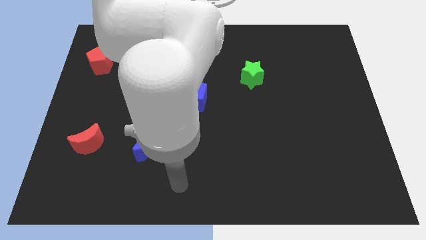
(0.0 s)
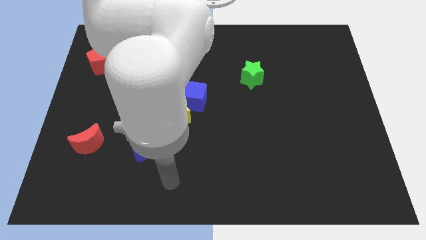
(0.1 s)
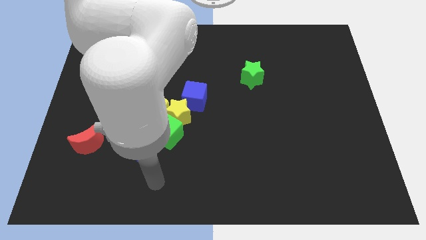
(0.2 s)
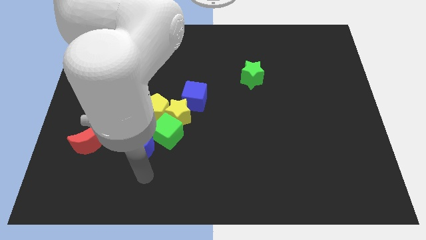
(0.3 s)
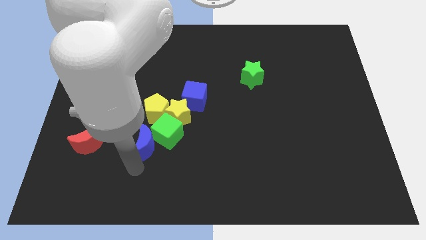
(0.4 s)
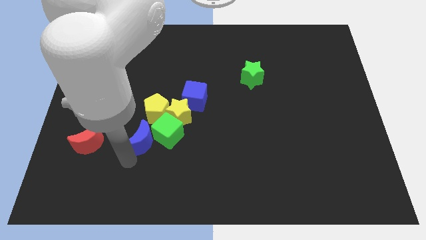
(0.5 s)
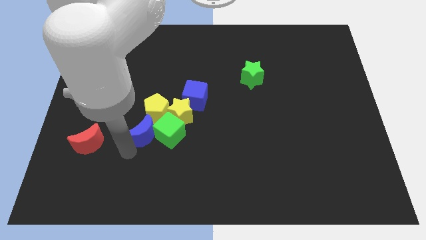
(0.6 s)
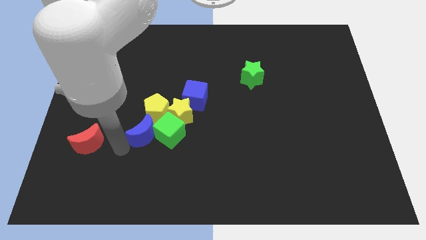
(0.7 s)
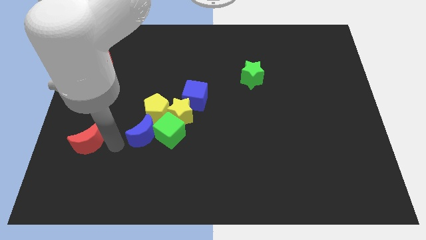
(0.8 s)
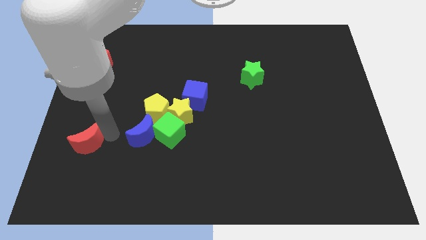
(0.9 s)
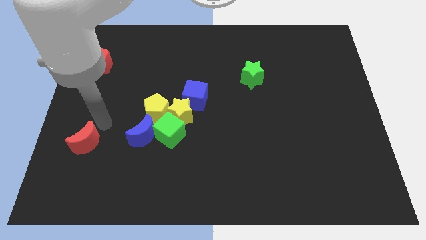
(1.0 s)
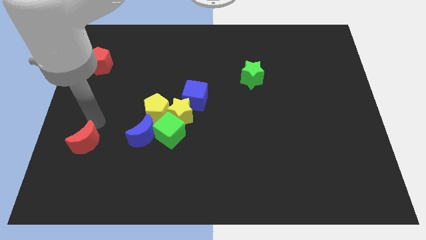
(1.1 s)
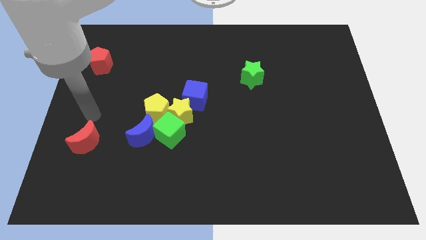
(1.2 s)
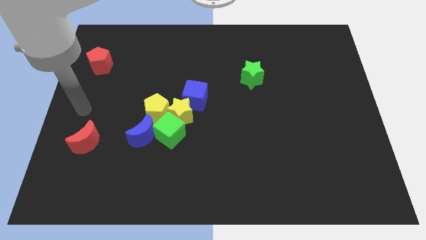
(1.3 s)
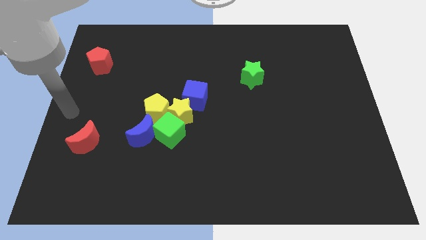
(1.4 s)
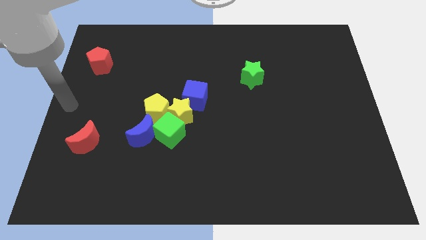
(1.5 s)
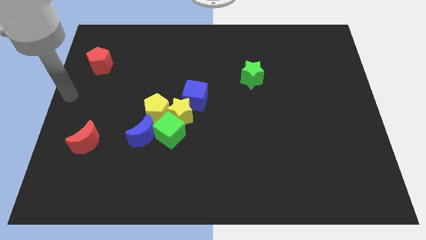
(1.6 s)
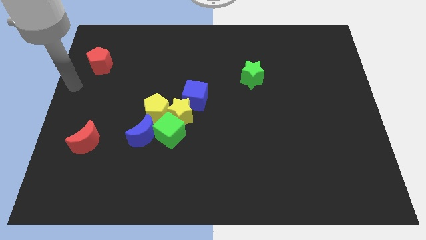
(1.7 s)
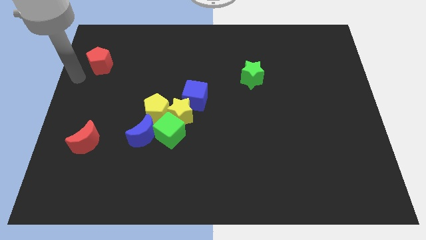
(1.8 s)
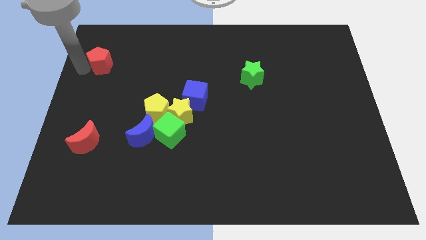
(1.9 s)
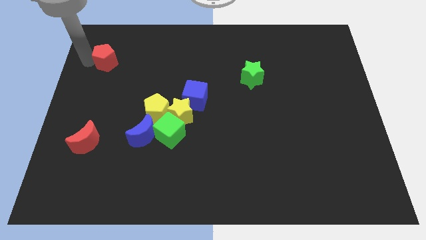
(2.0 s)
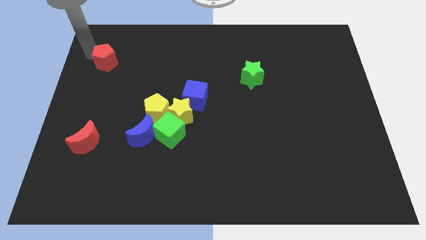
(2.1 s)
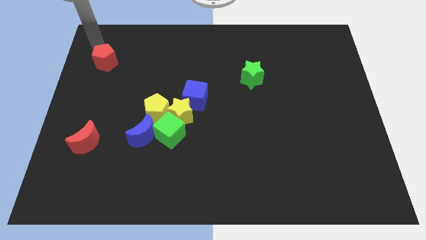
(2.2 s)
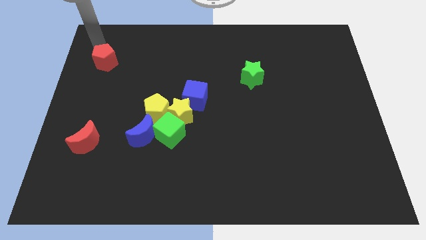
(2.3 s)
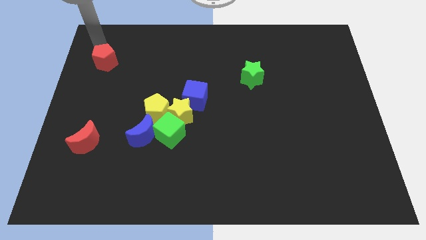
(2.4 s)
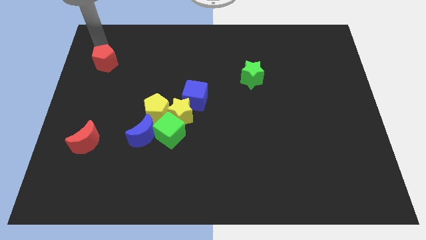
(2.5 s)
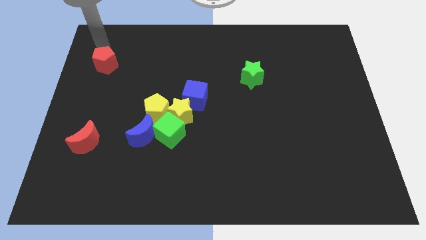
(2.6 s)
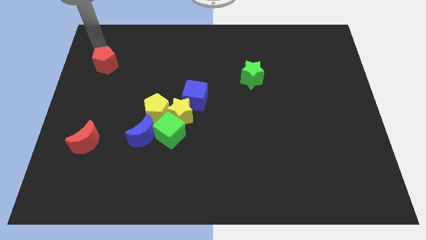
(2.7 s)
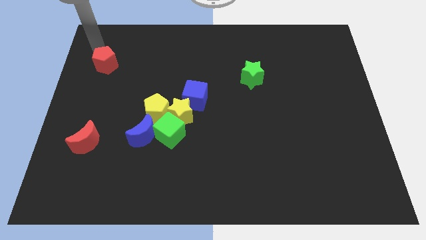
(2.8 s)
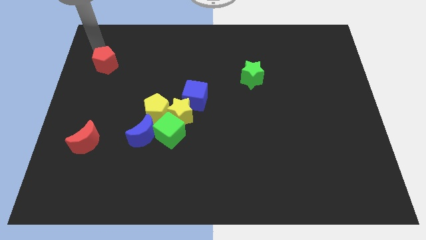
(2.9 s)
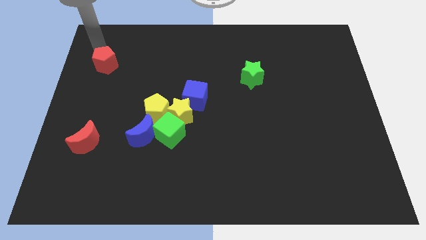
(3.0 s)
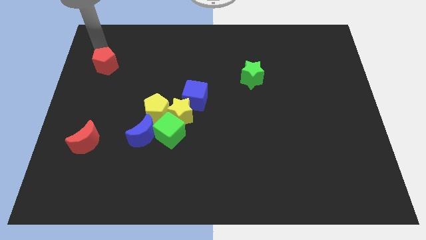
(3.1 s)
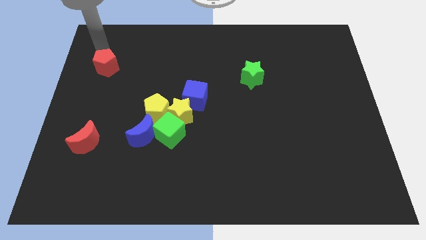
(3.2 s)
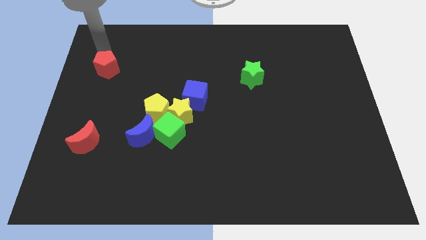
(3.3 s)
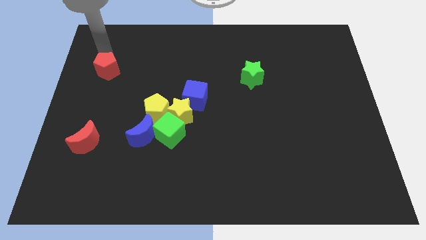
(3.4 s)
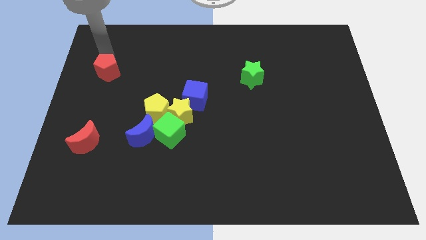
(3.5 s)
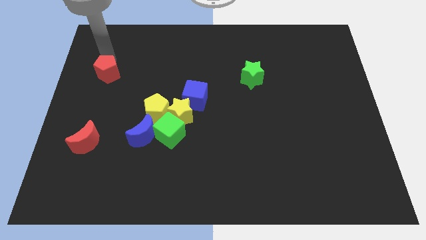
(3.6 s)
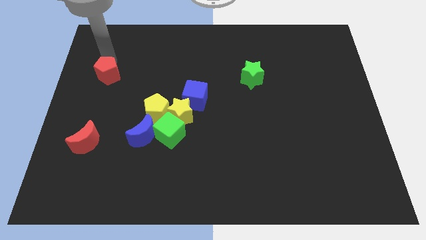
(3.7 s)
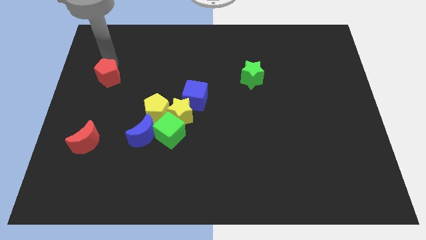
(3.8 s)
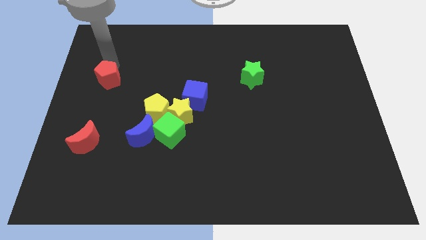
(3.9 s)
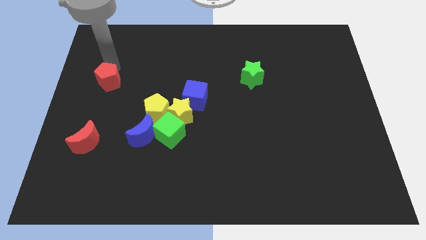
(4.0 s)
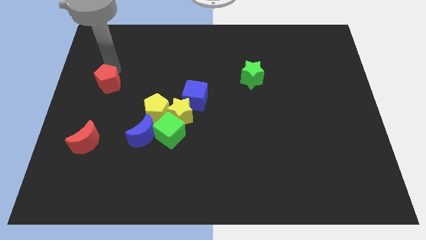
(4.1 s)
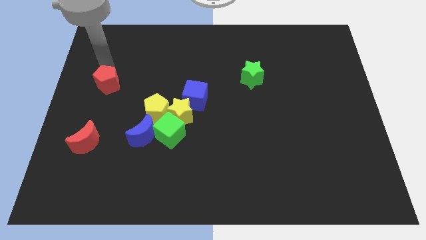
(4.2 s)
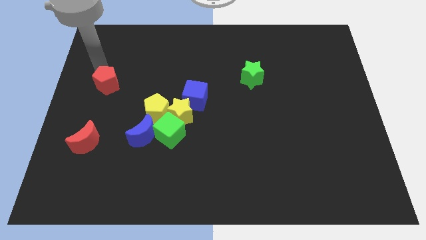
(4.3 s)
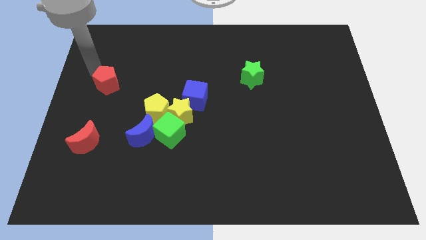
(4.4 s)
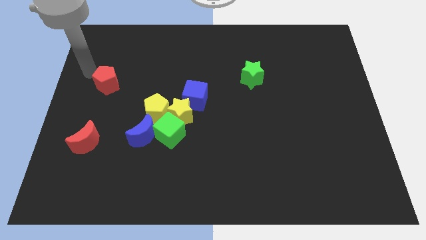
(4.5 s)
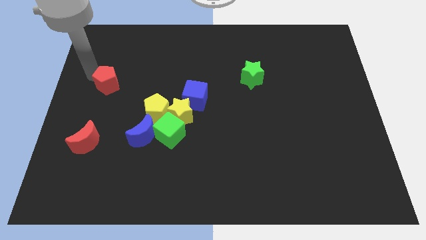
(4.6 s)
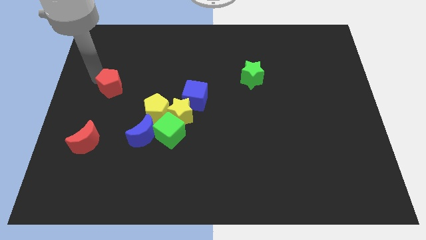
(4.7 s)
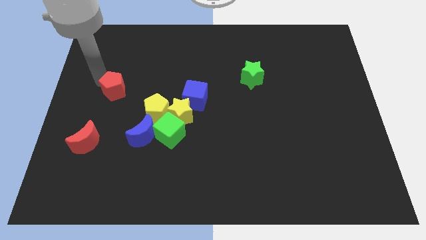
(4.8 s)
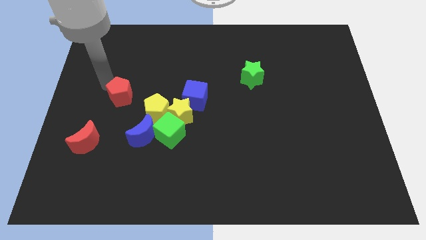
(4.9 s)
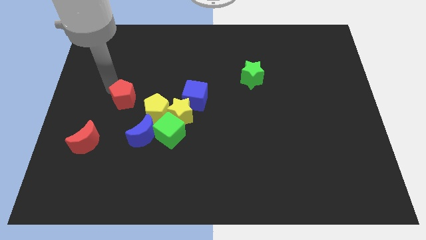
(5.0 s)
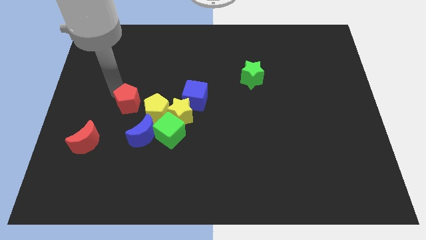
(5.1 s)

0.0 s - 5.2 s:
push the red pentagon just left of the yellow star

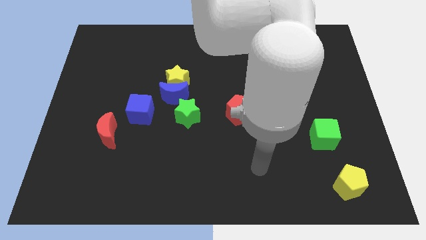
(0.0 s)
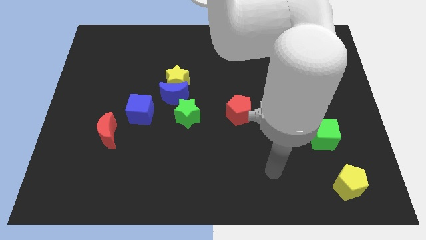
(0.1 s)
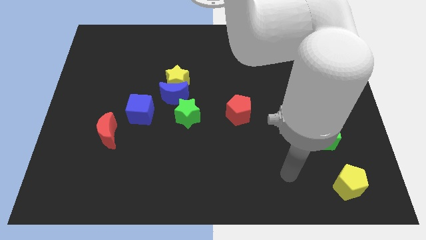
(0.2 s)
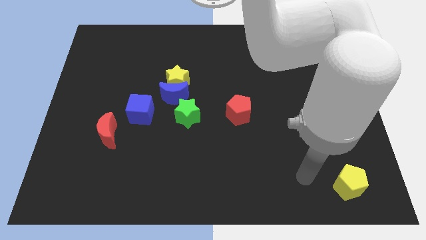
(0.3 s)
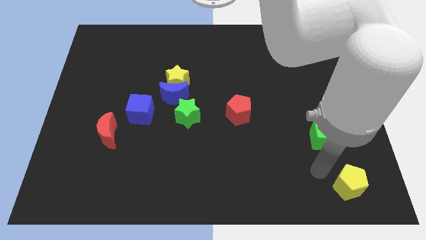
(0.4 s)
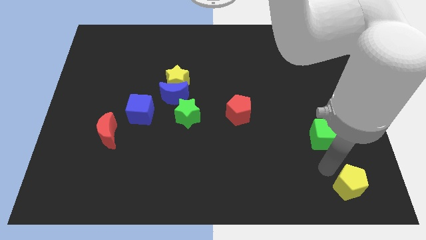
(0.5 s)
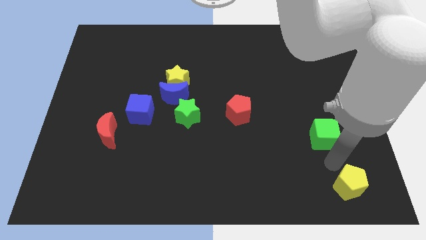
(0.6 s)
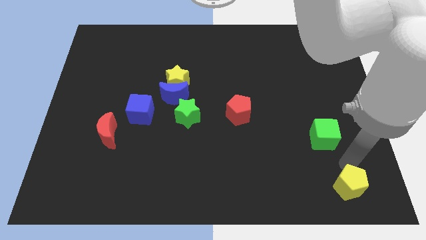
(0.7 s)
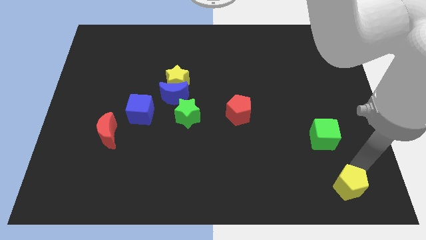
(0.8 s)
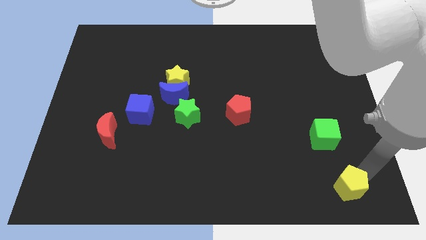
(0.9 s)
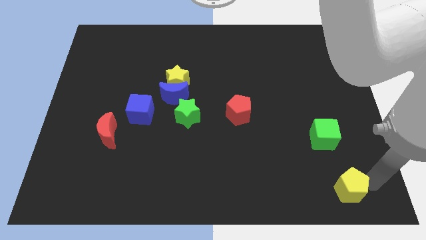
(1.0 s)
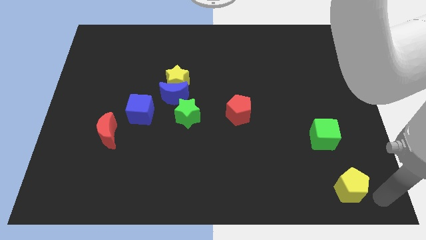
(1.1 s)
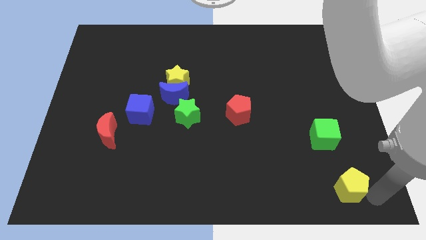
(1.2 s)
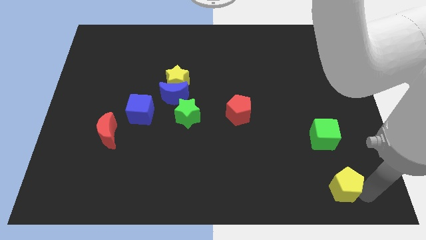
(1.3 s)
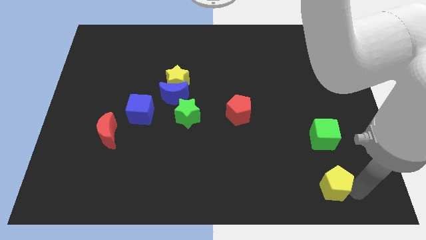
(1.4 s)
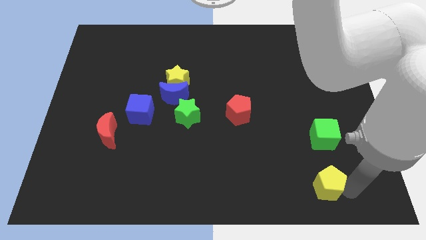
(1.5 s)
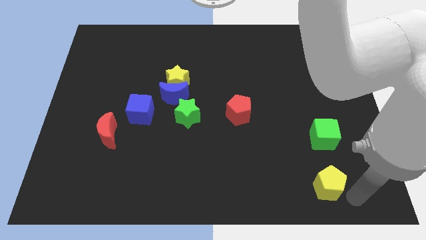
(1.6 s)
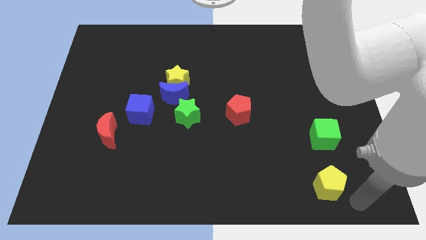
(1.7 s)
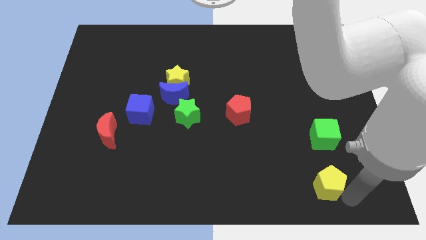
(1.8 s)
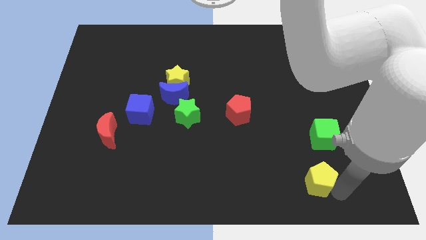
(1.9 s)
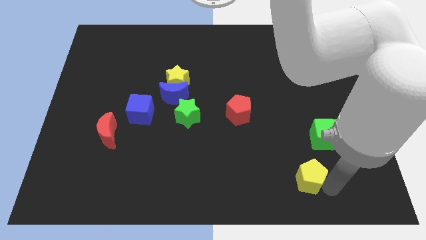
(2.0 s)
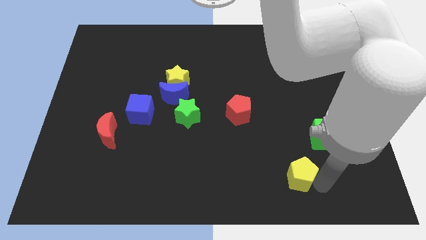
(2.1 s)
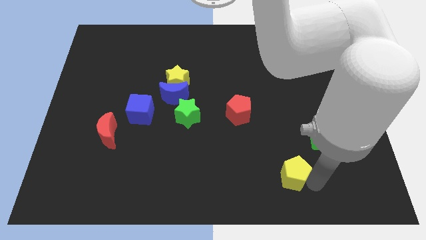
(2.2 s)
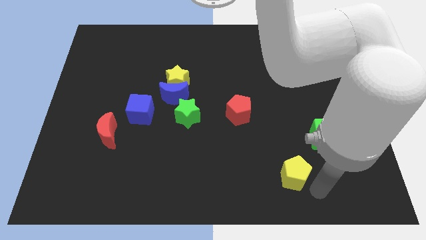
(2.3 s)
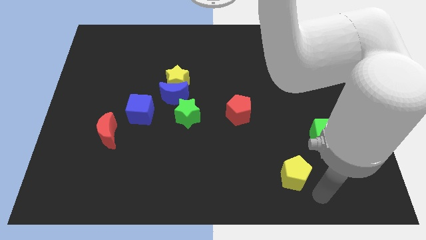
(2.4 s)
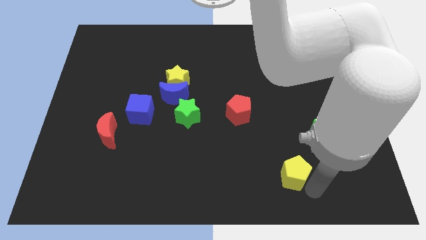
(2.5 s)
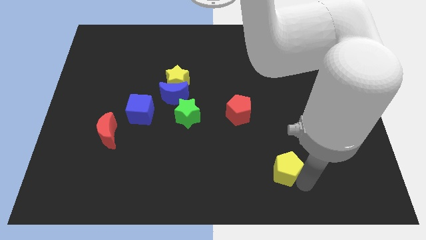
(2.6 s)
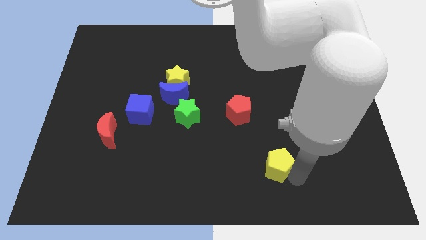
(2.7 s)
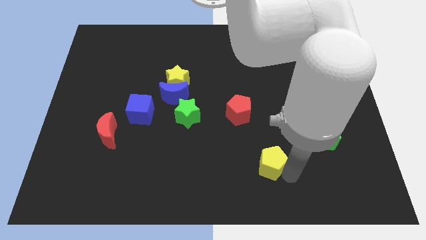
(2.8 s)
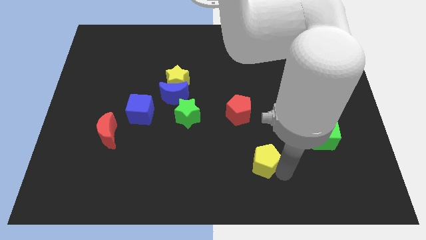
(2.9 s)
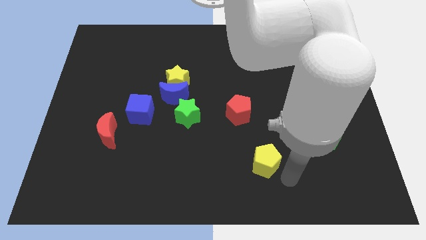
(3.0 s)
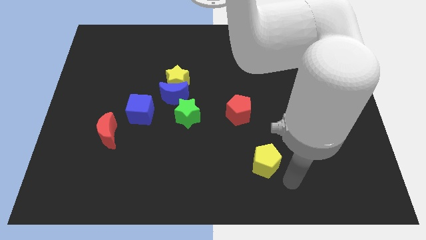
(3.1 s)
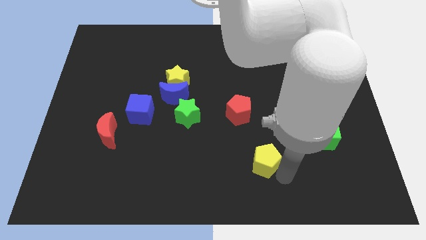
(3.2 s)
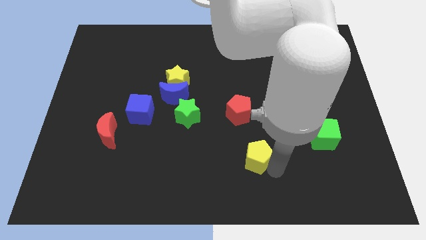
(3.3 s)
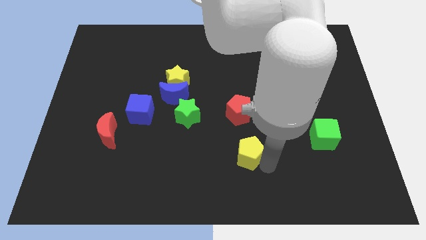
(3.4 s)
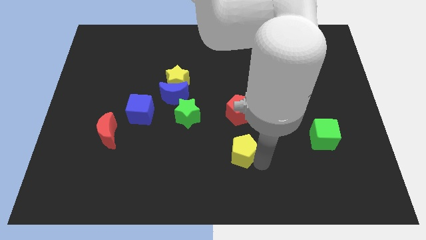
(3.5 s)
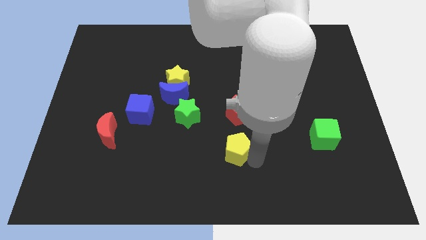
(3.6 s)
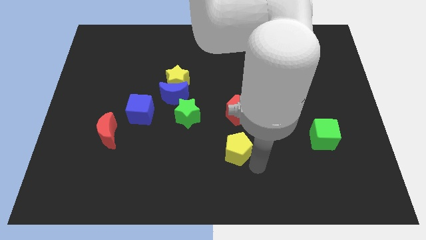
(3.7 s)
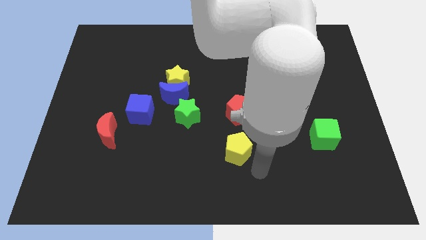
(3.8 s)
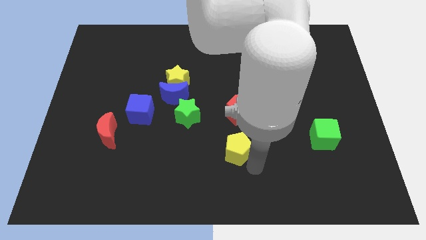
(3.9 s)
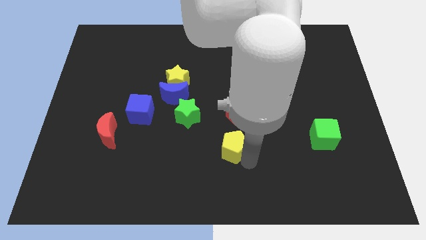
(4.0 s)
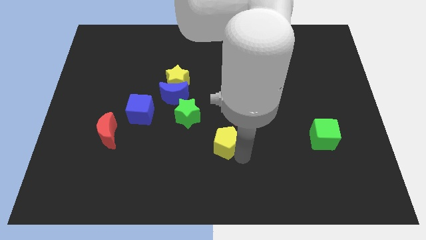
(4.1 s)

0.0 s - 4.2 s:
move the yellow pentagon to the bottom left of the red pentagon
